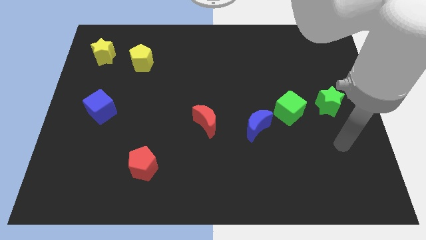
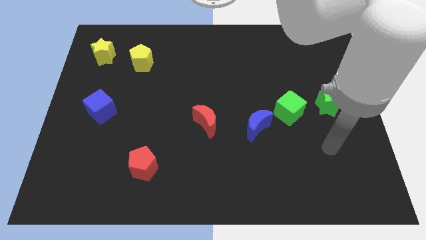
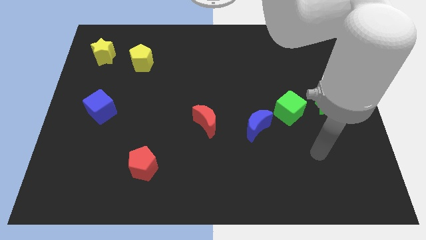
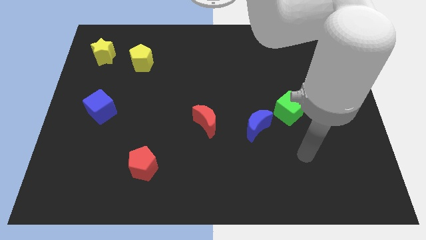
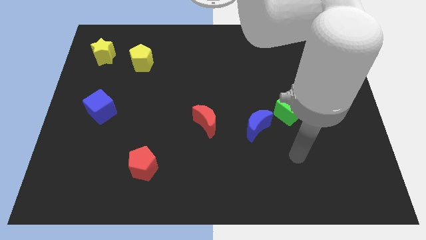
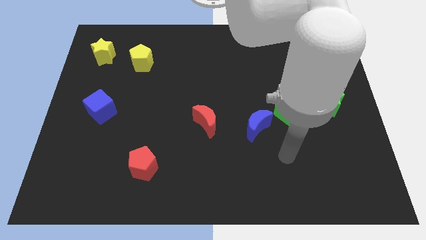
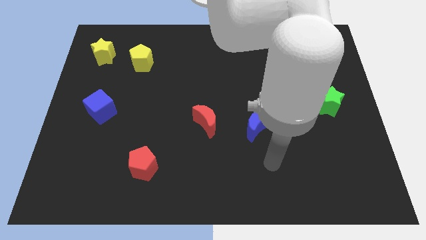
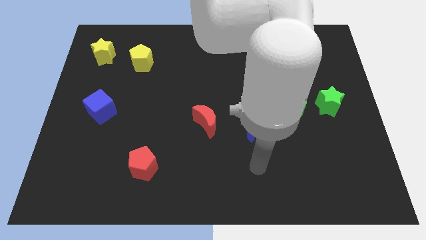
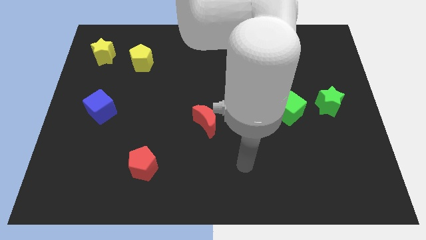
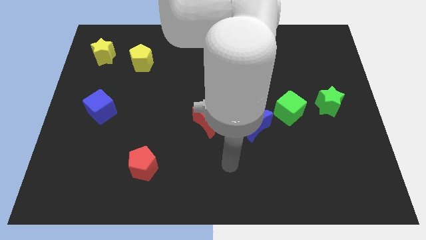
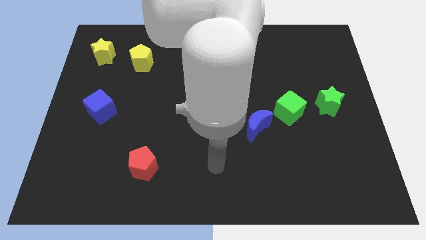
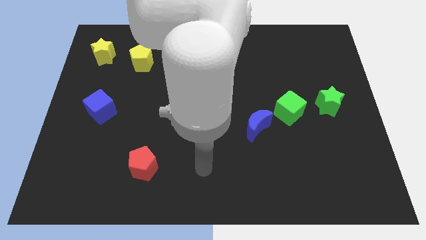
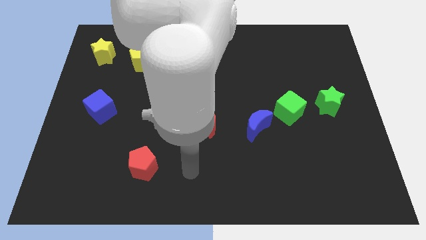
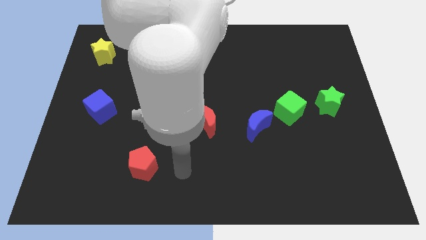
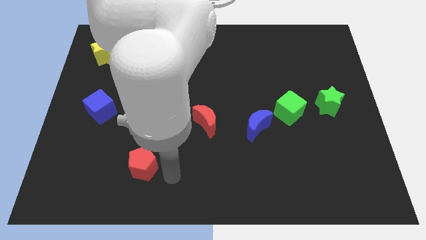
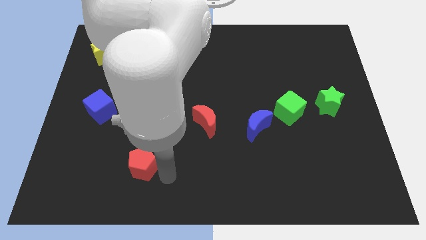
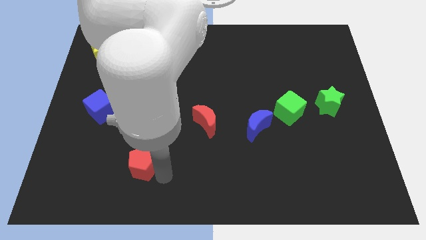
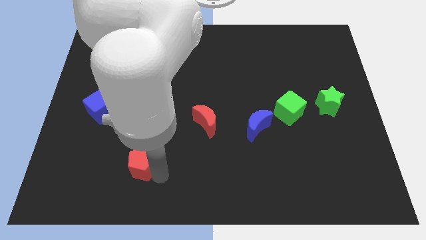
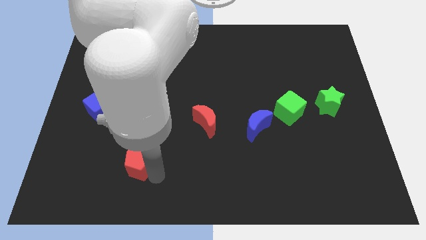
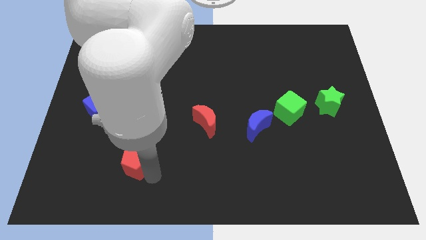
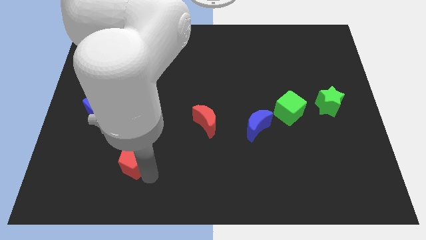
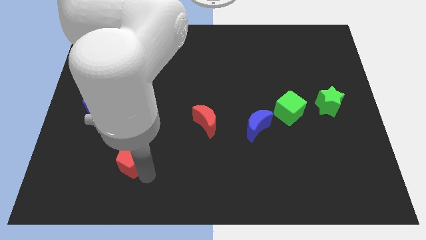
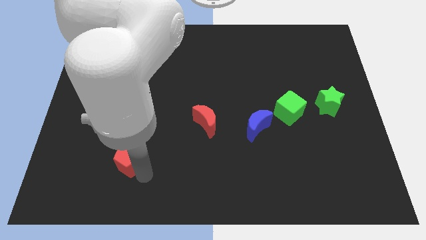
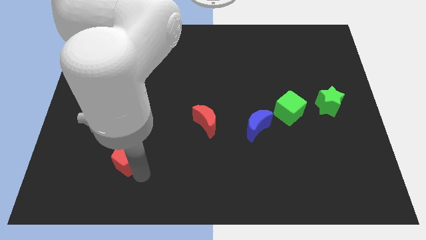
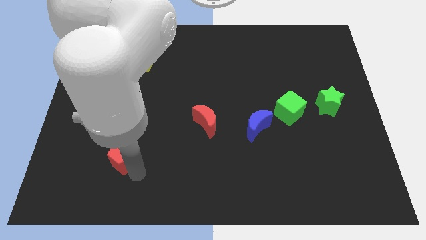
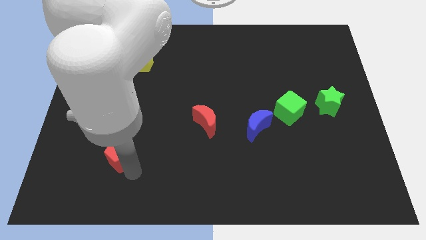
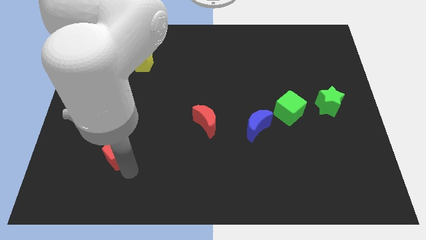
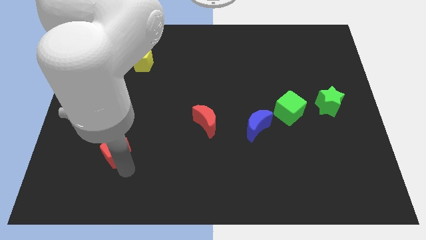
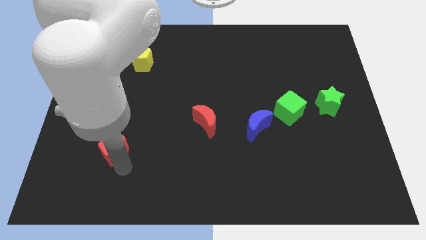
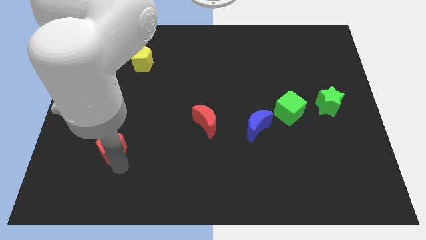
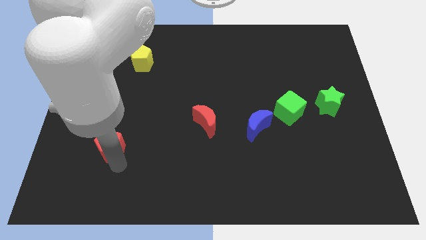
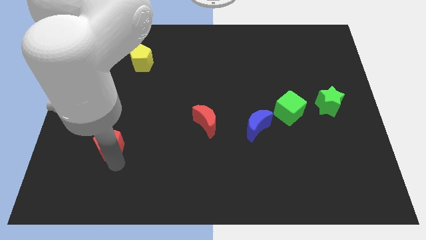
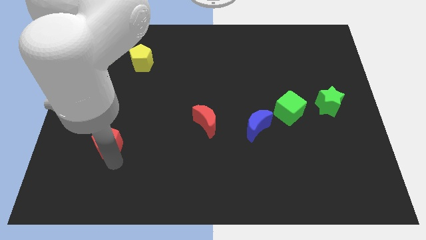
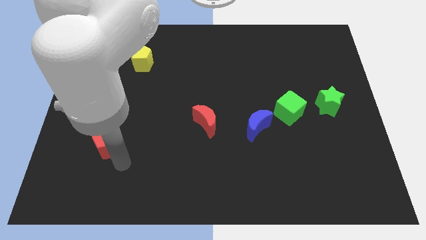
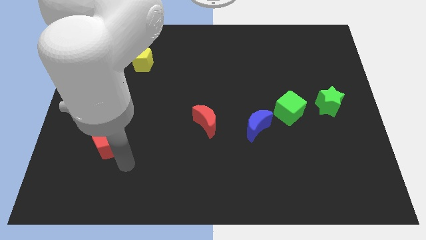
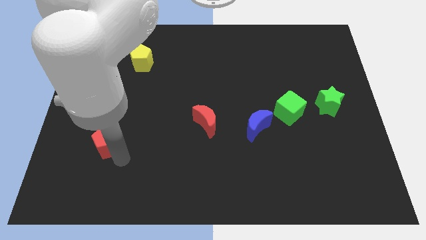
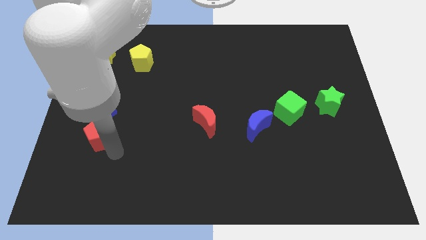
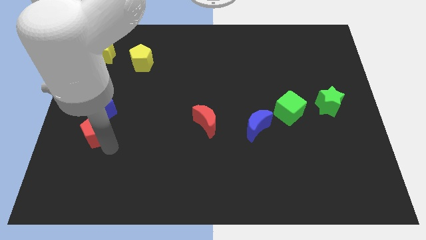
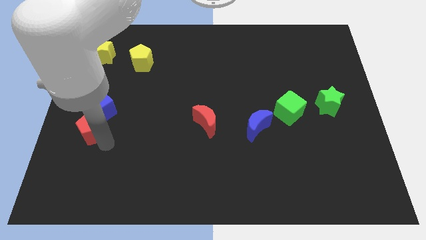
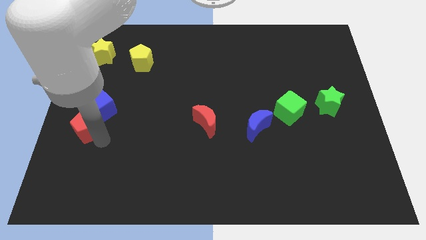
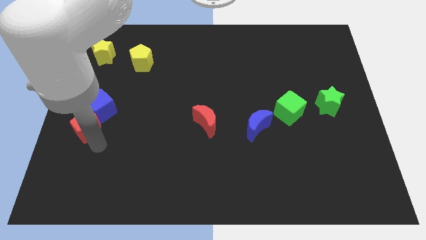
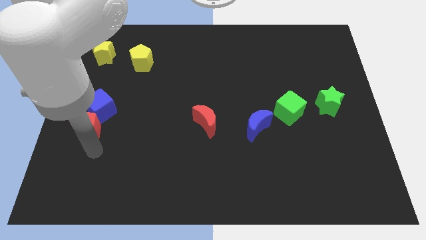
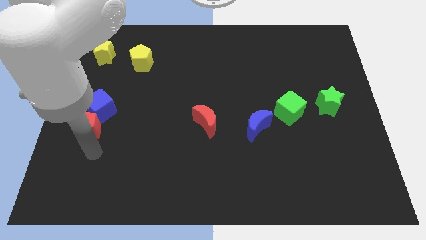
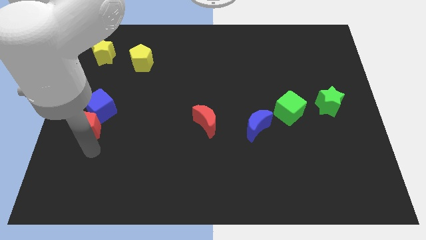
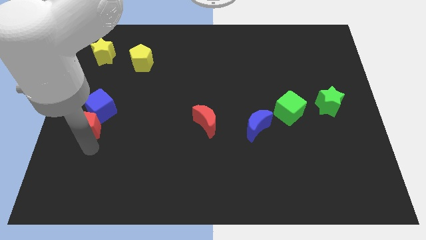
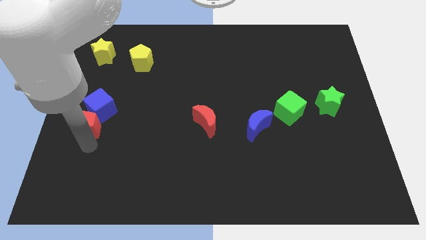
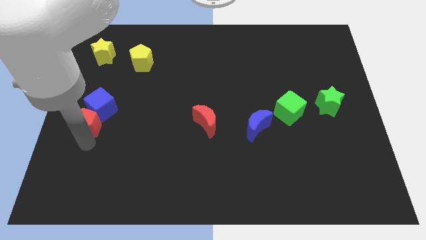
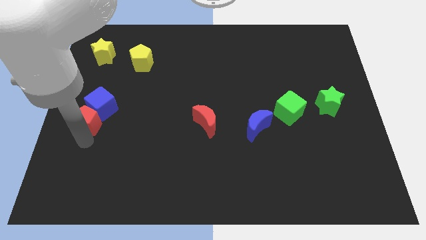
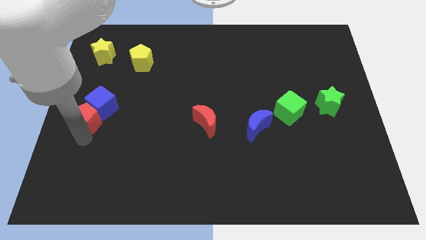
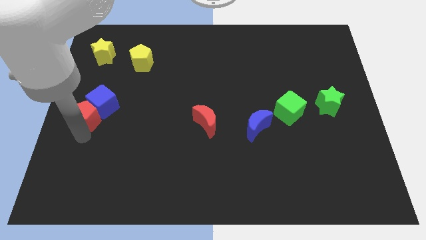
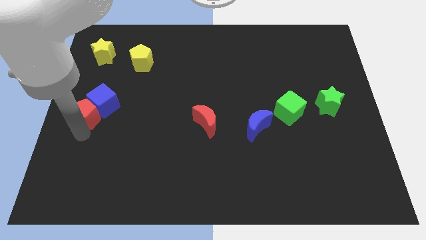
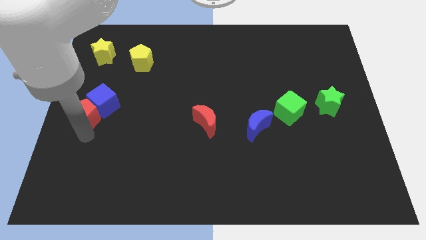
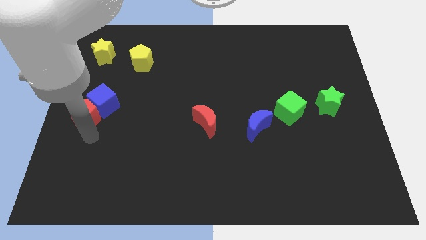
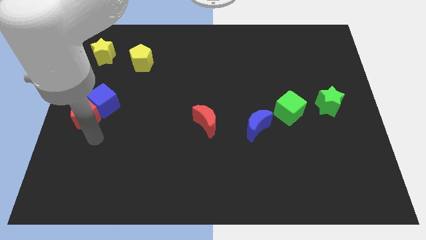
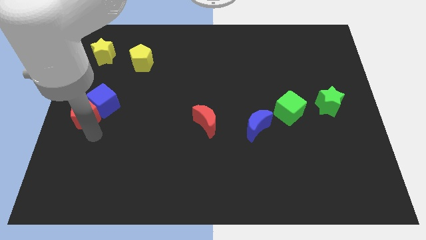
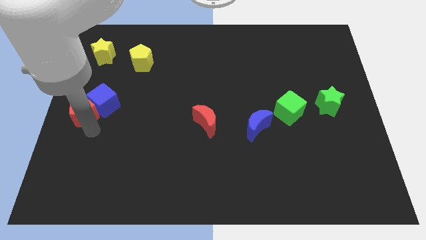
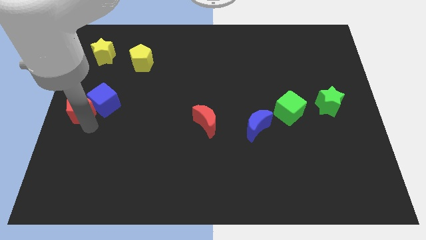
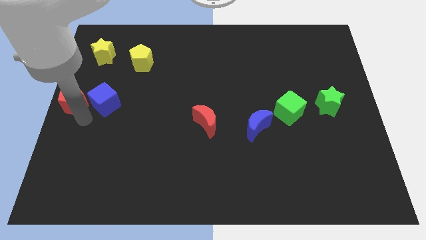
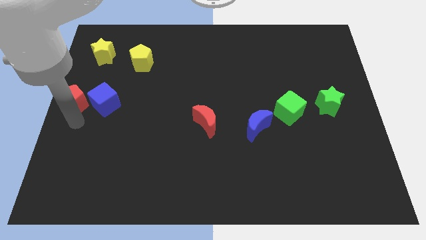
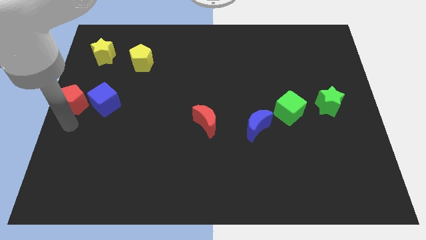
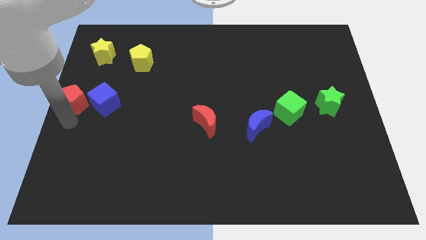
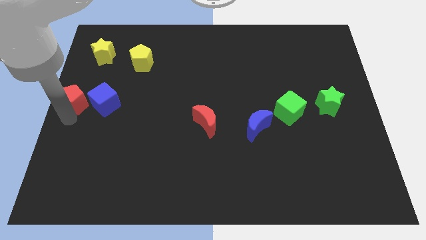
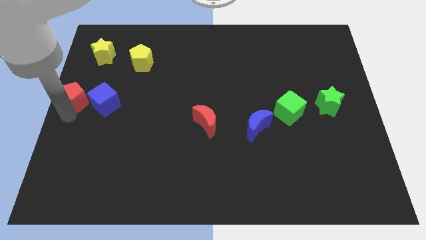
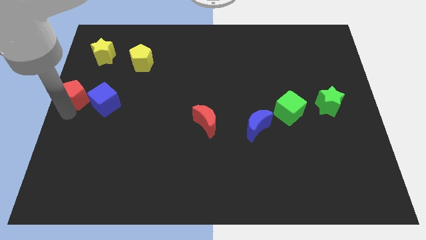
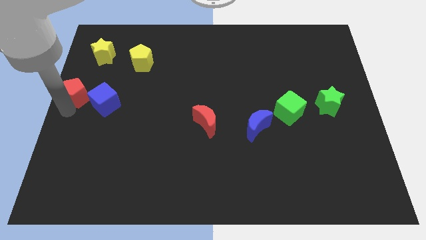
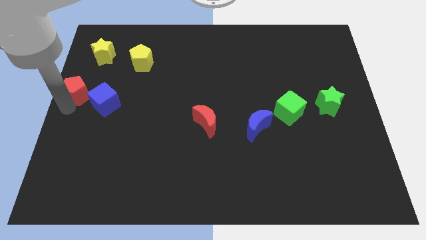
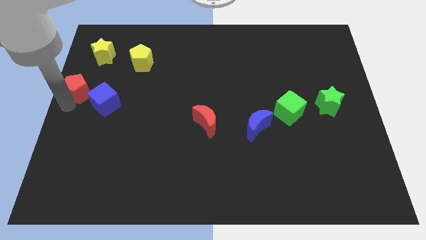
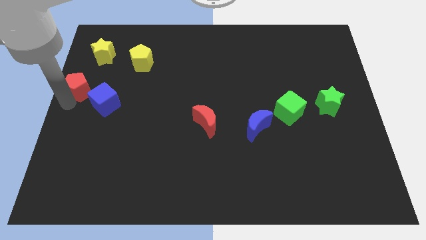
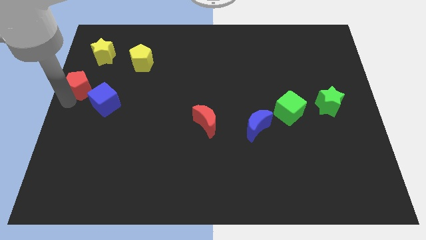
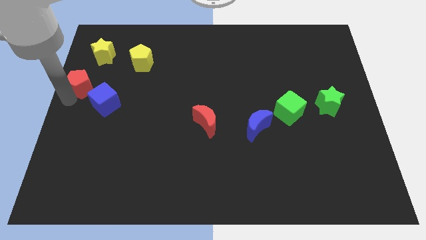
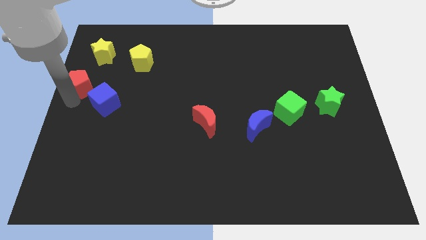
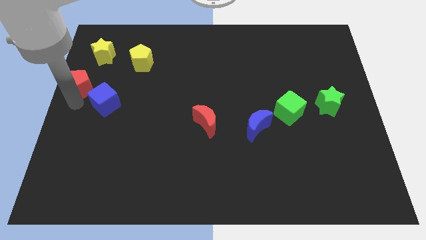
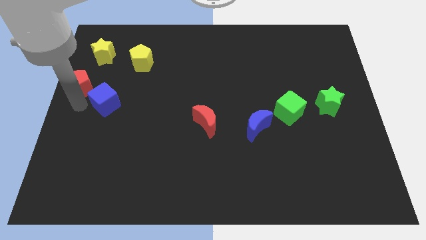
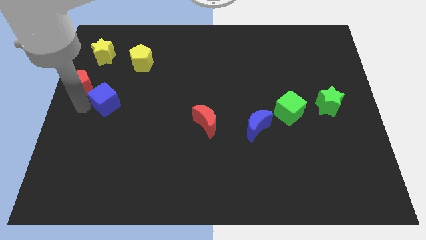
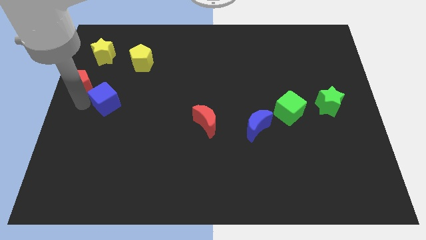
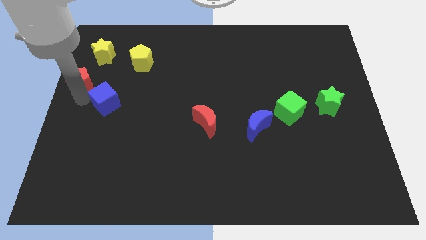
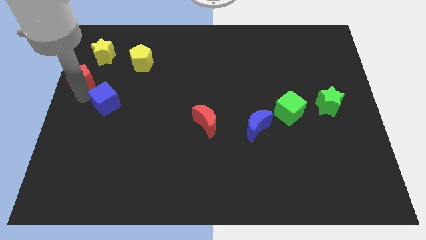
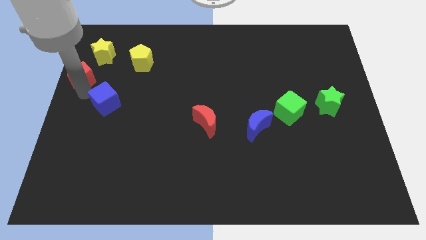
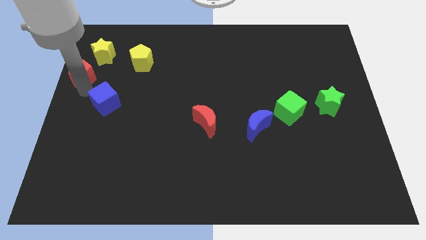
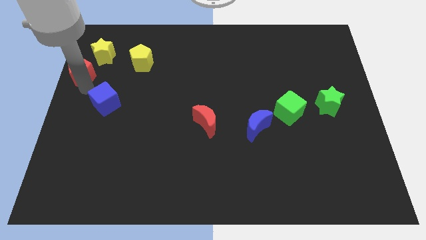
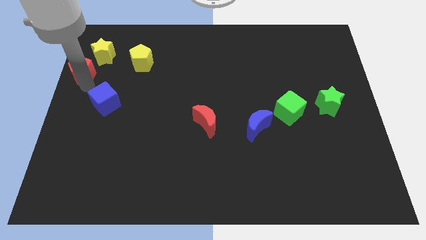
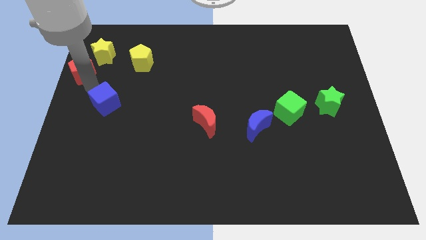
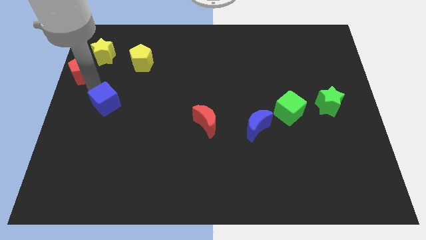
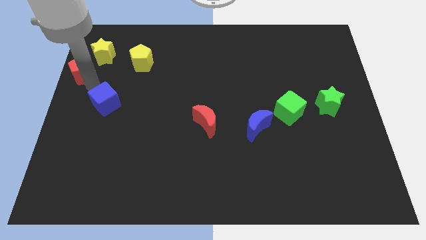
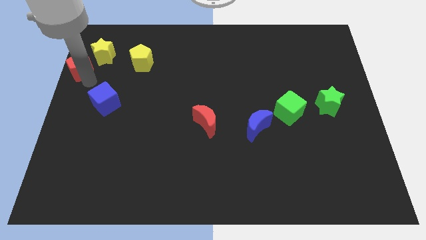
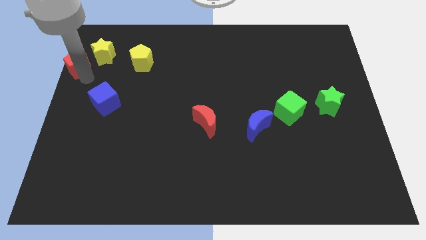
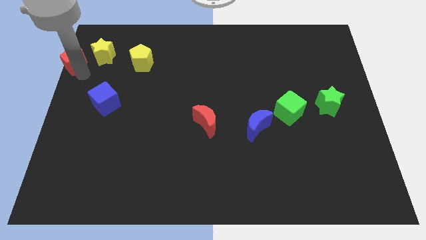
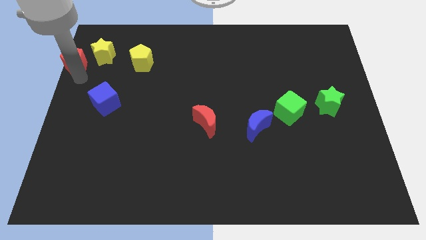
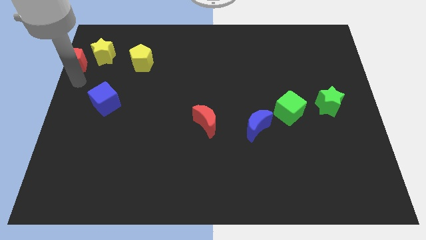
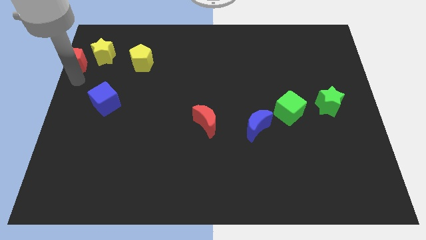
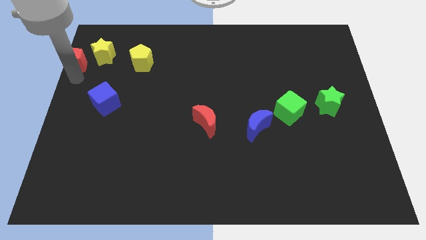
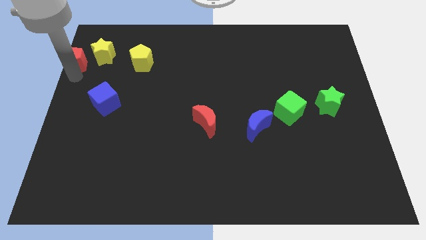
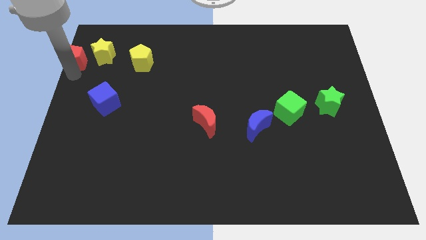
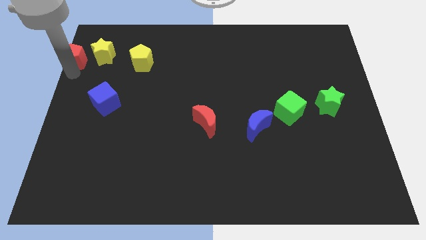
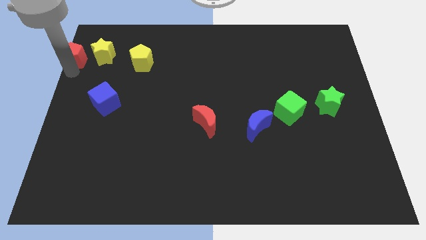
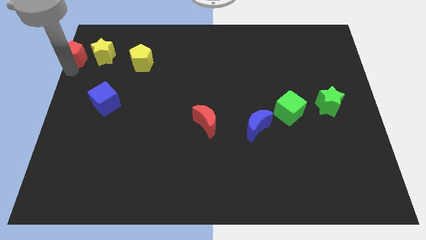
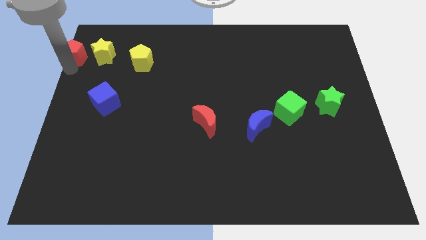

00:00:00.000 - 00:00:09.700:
slide the red pentagon to the upper left corner
